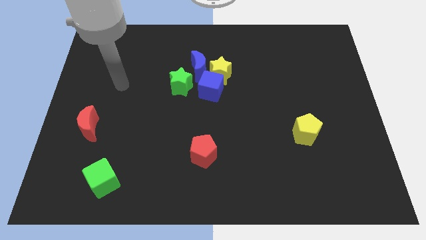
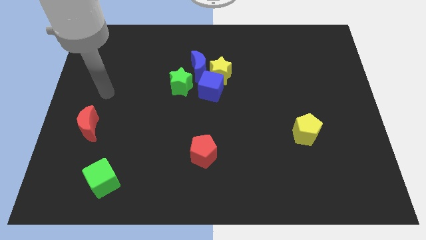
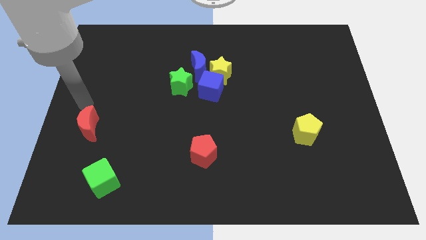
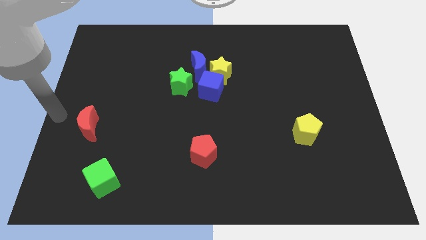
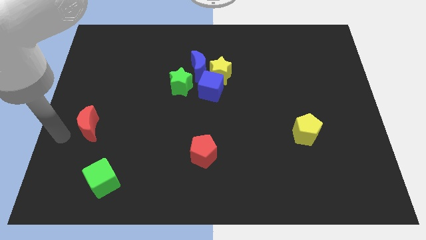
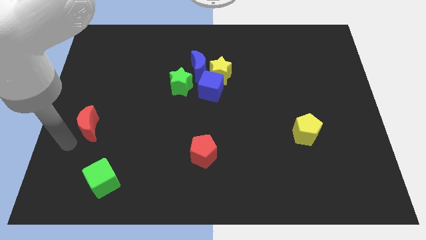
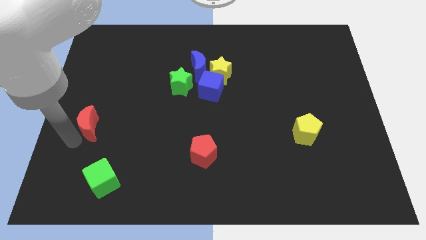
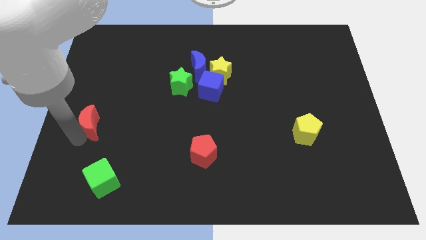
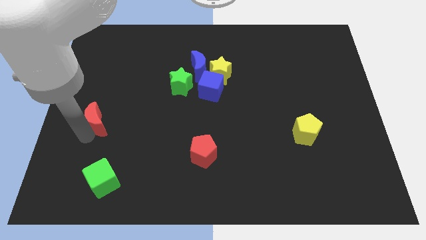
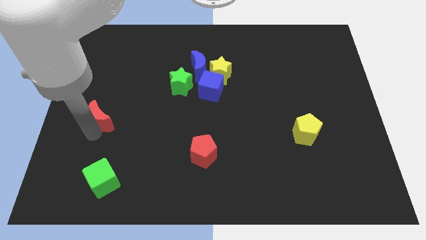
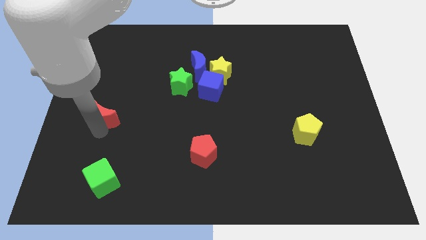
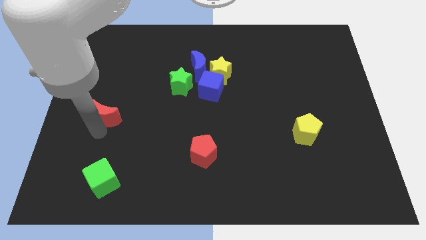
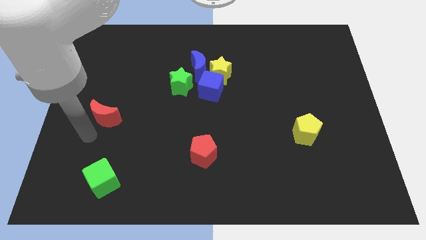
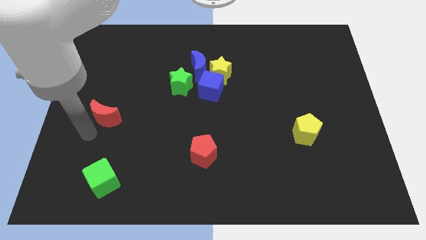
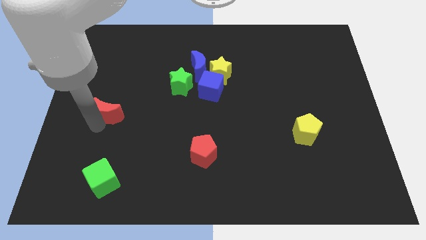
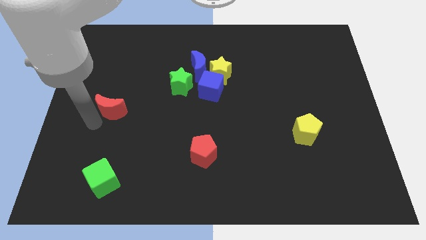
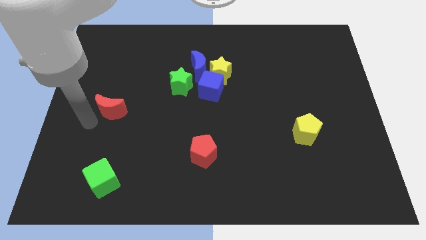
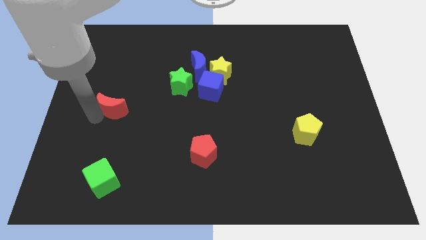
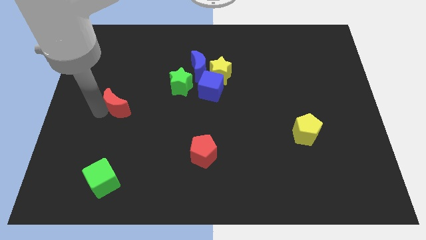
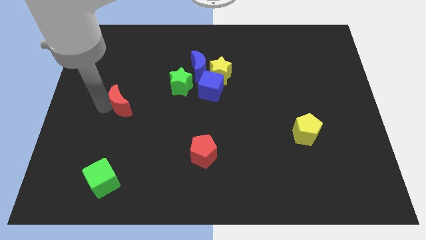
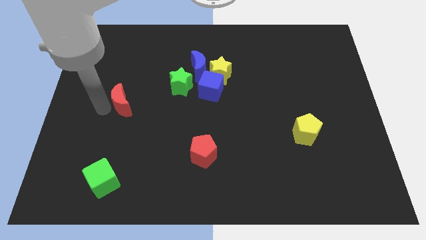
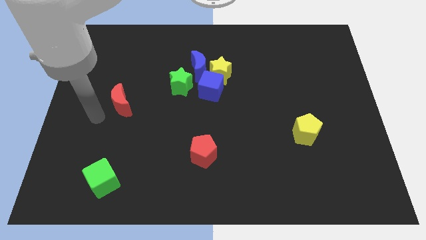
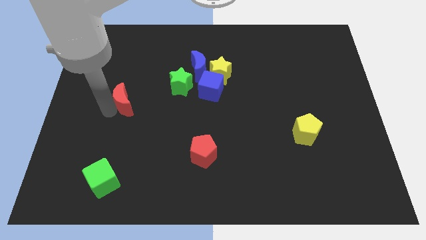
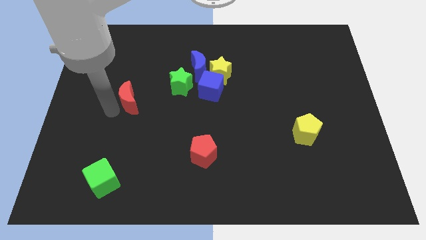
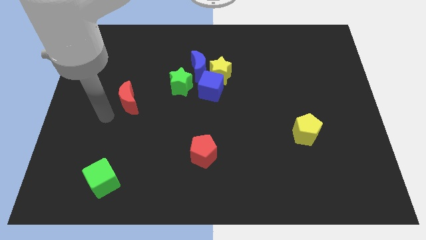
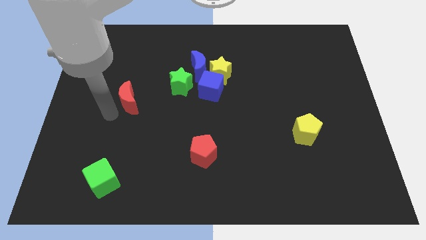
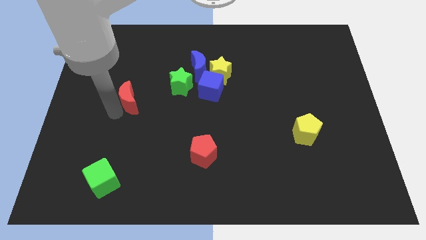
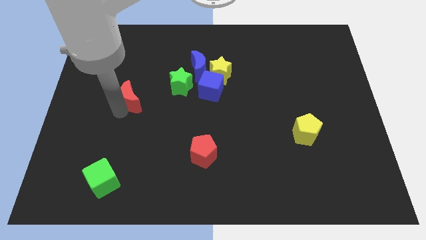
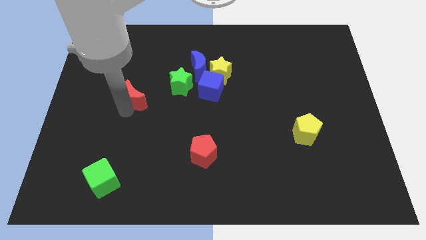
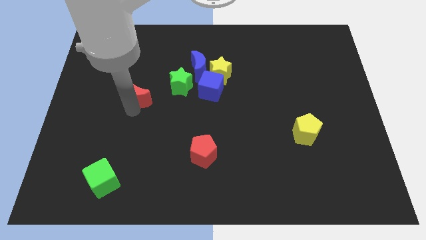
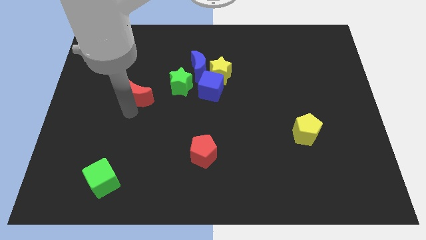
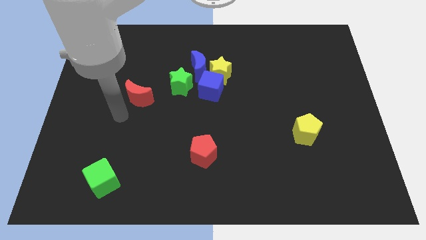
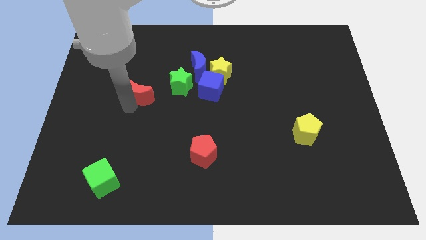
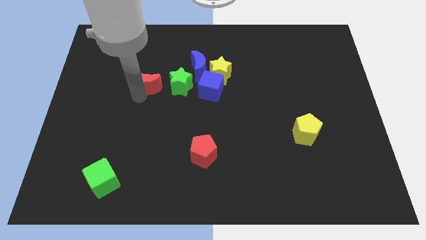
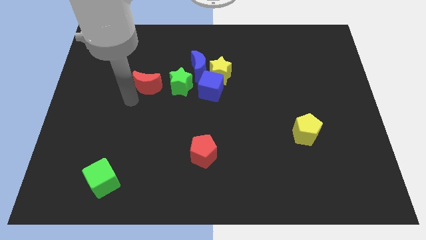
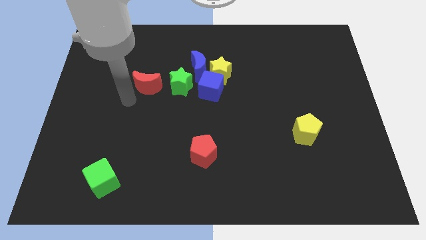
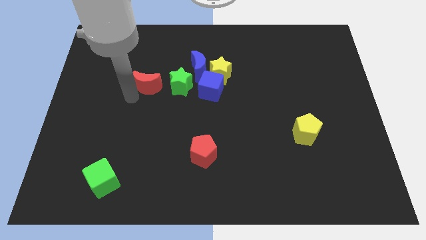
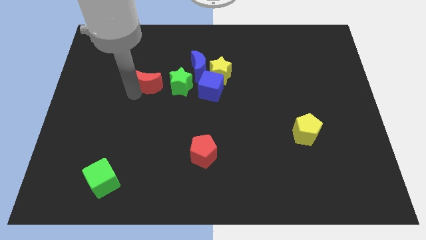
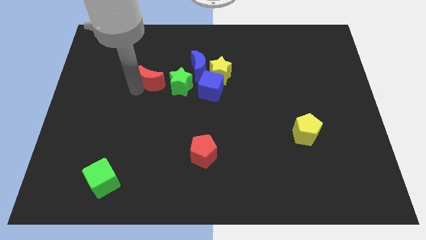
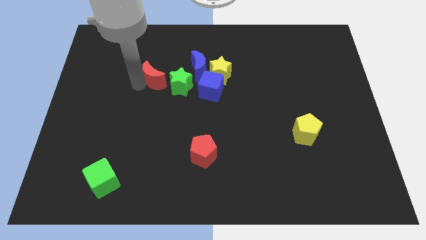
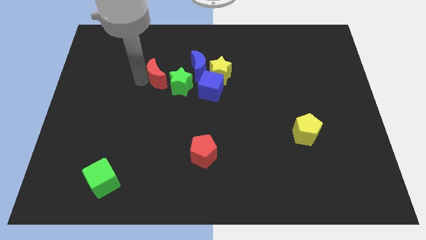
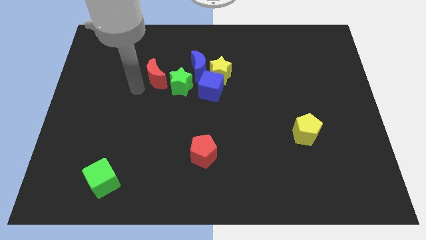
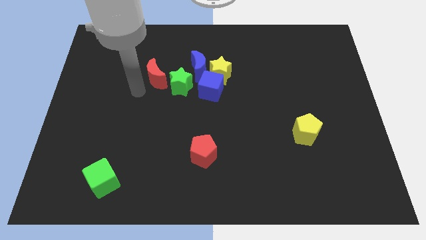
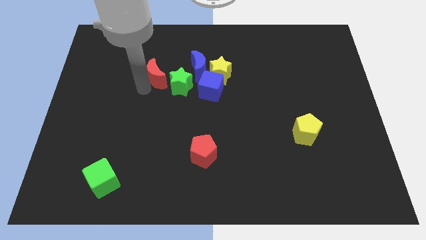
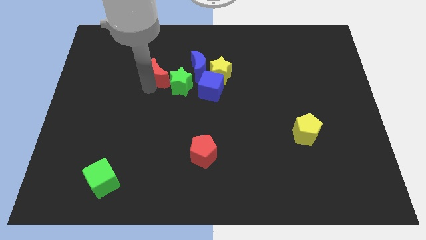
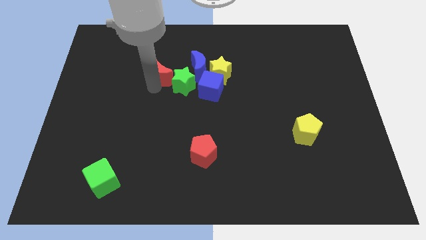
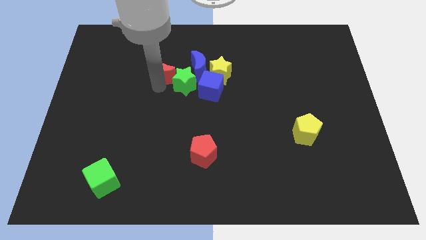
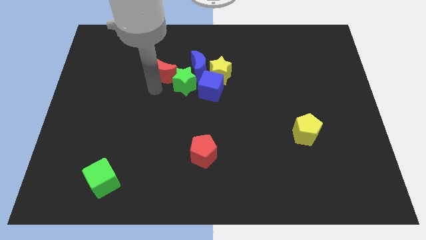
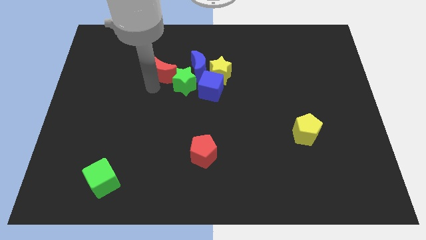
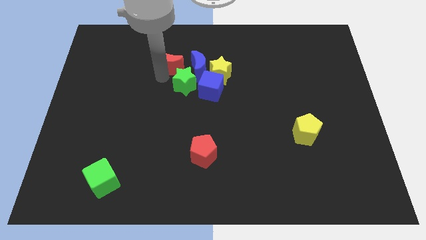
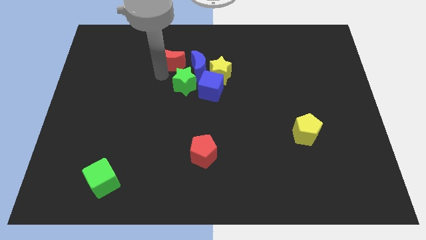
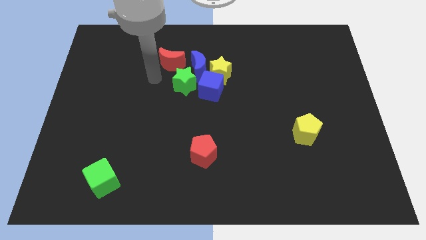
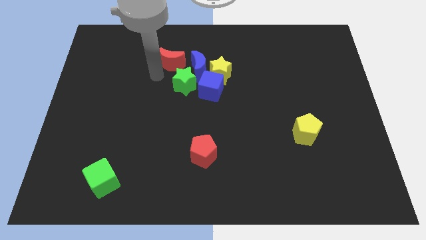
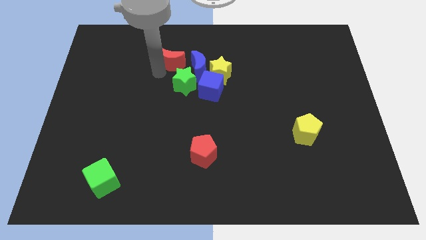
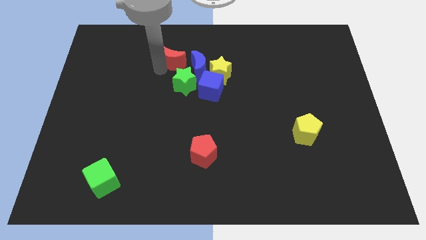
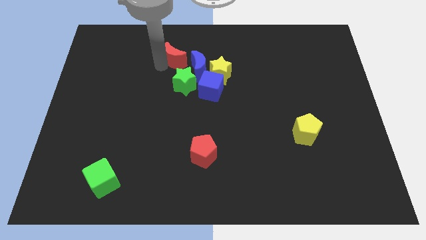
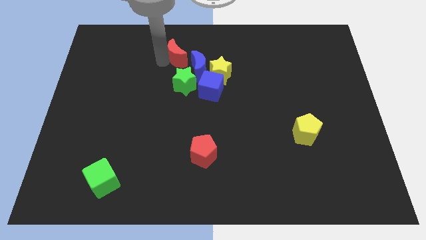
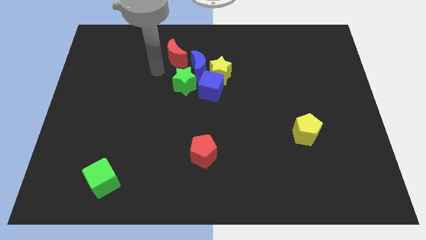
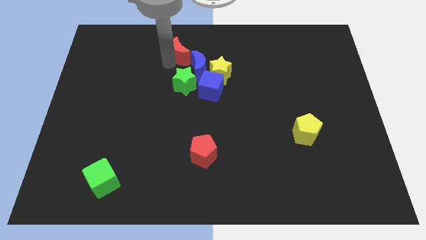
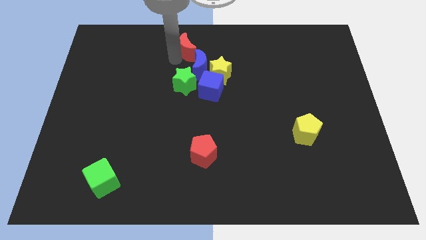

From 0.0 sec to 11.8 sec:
slide the red moon to the towards your base

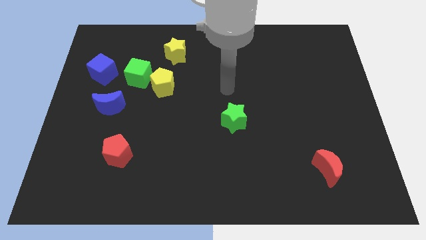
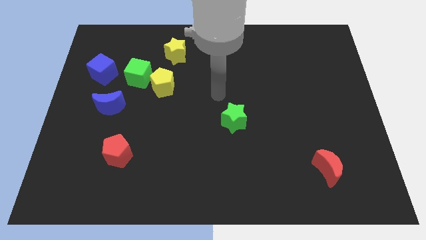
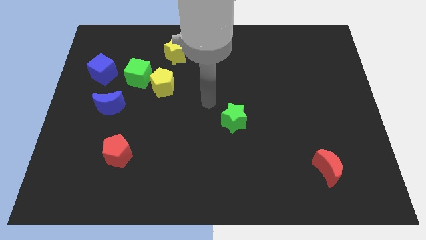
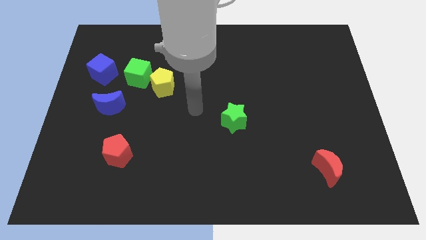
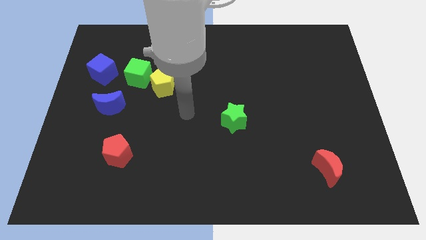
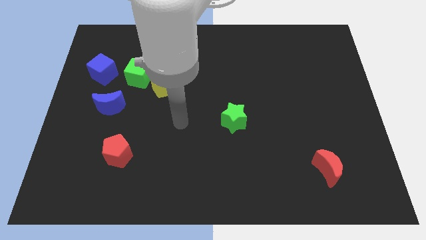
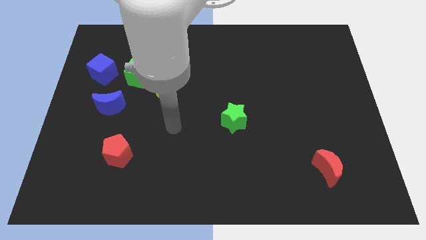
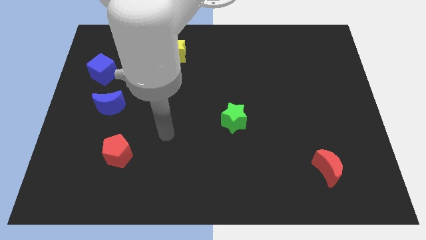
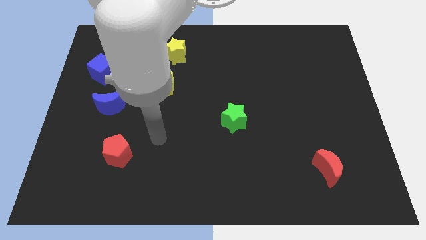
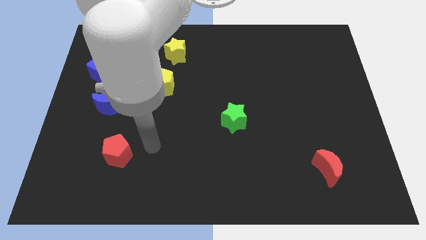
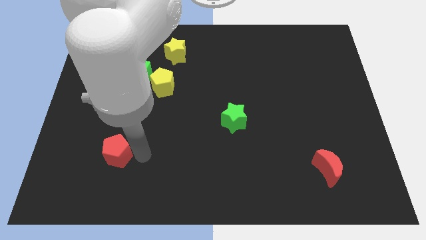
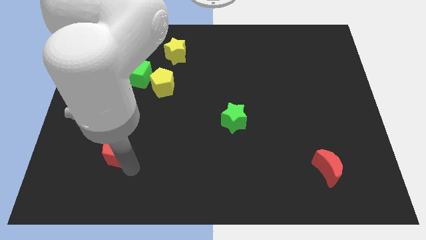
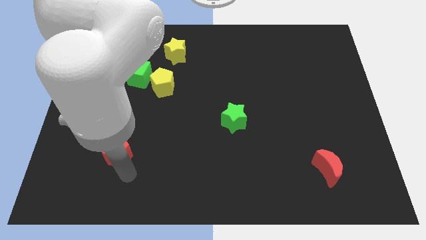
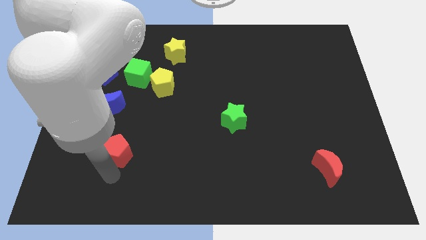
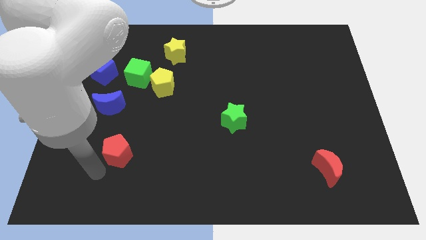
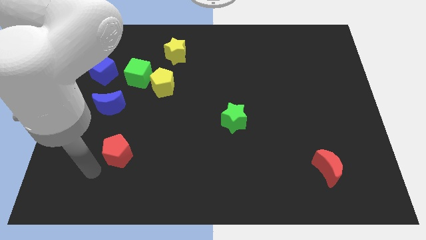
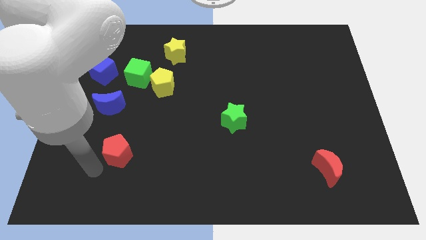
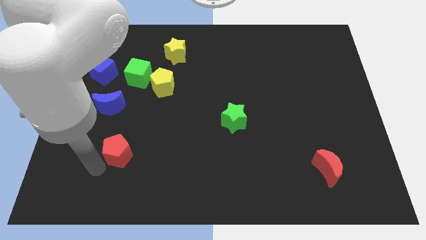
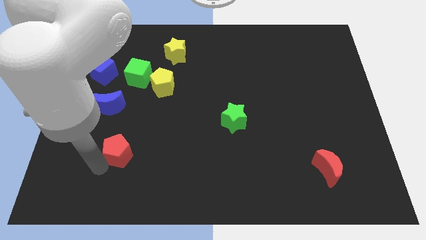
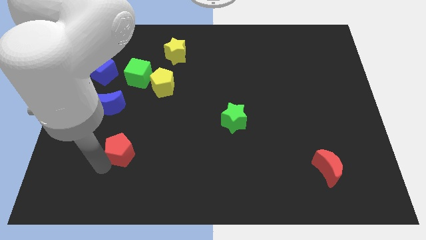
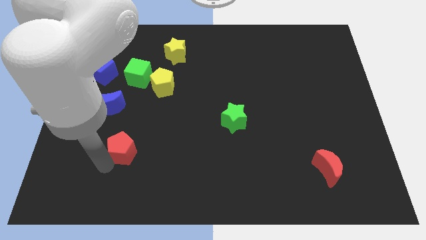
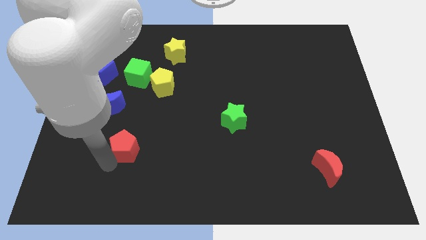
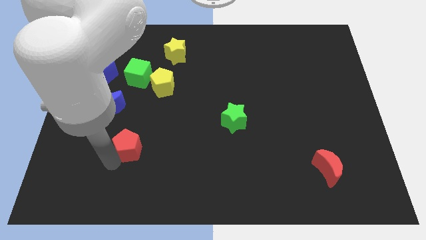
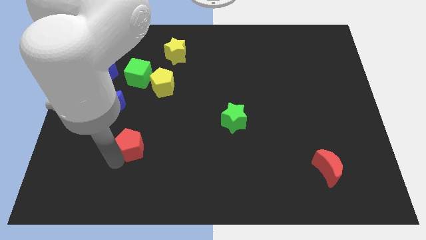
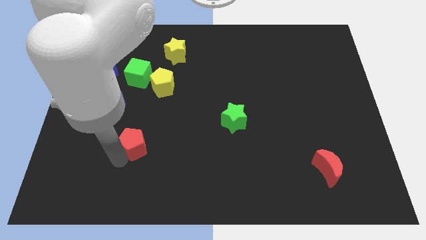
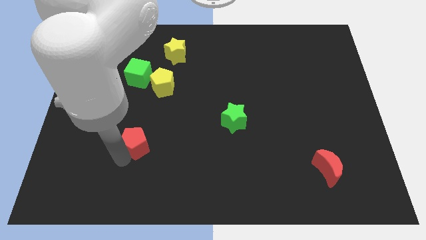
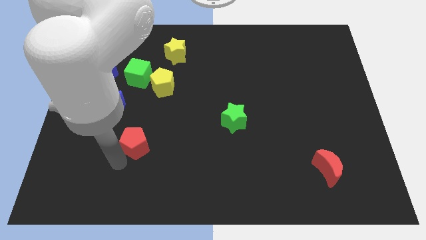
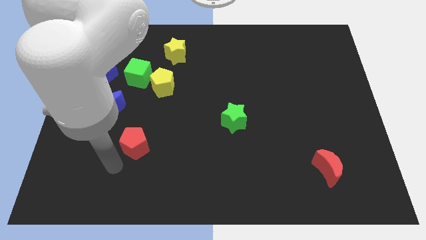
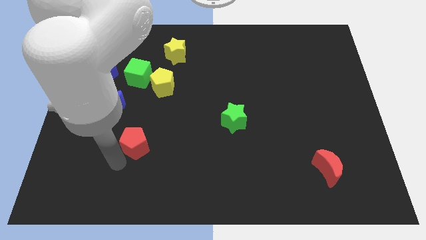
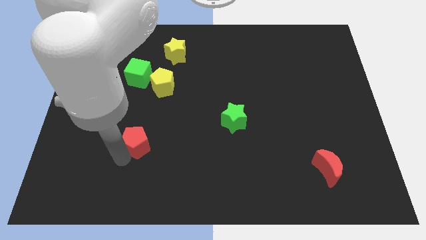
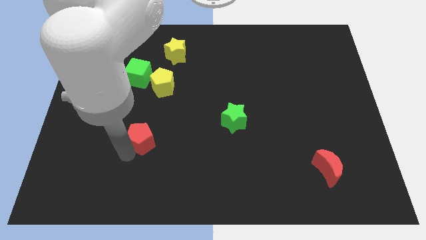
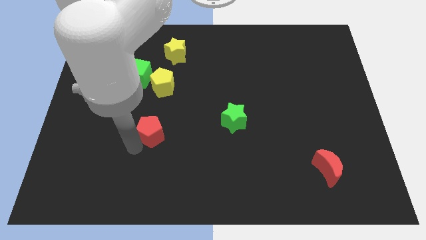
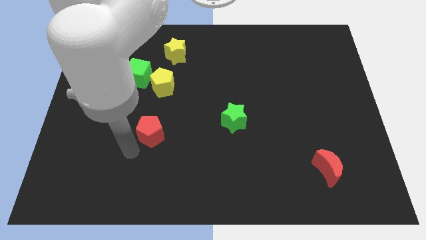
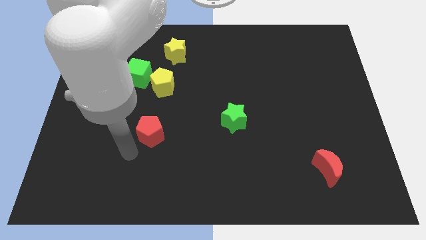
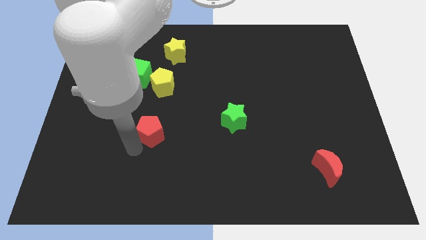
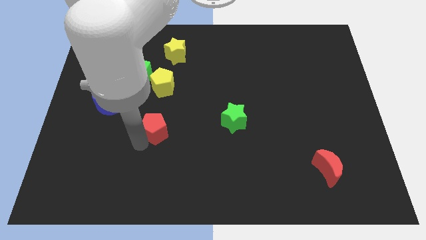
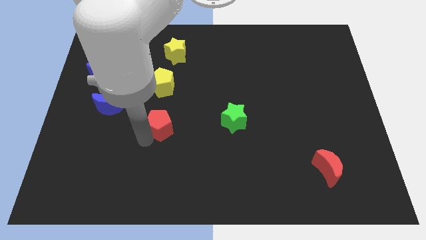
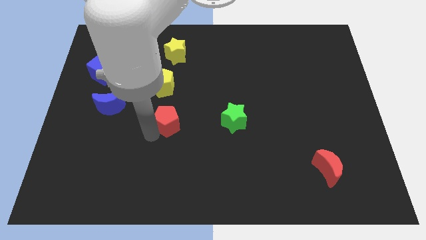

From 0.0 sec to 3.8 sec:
slide the red pentagon to the middle
